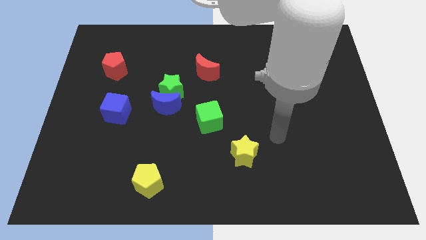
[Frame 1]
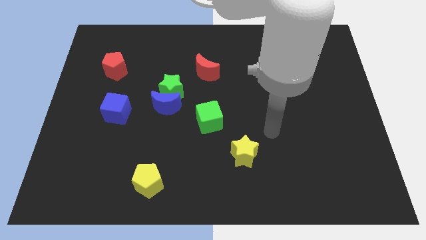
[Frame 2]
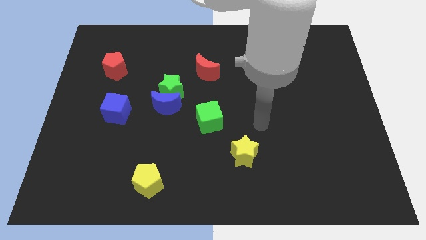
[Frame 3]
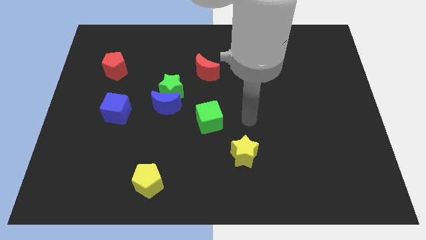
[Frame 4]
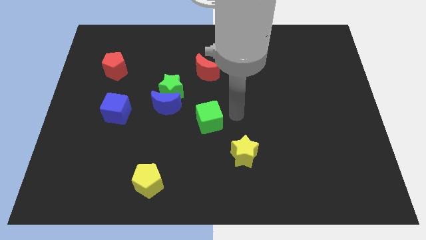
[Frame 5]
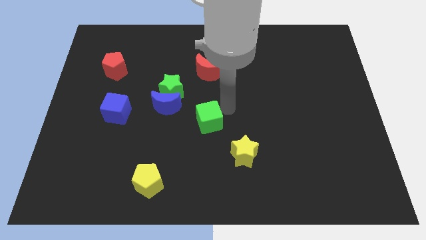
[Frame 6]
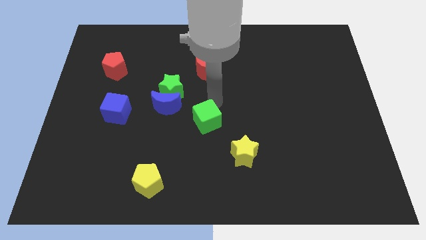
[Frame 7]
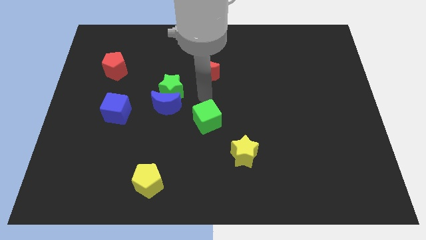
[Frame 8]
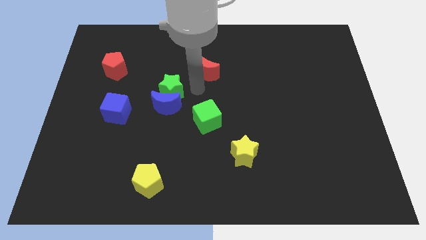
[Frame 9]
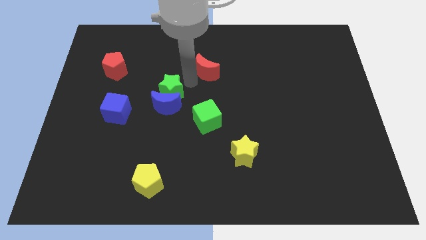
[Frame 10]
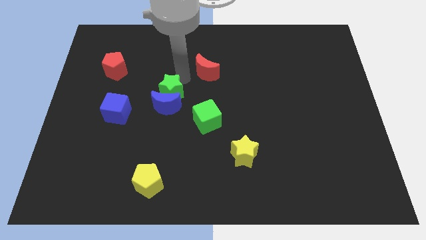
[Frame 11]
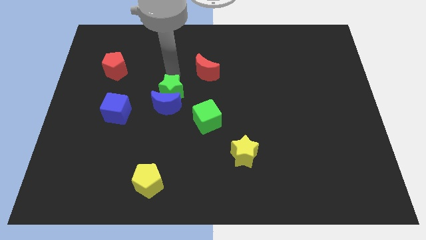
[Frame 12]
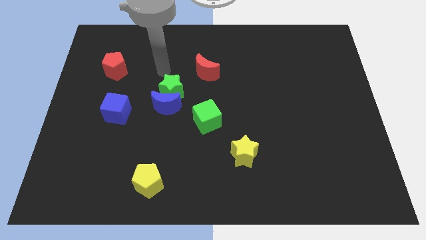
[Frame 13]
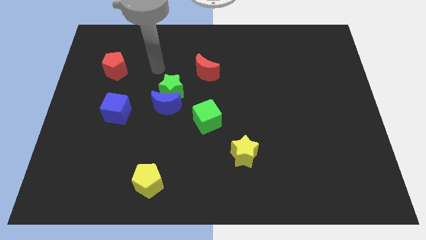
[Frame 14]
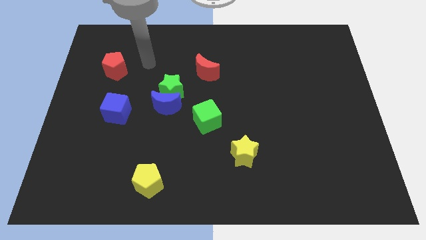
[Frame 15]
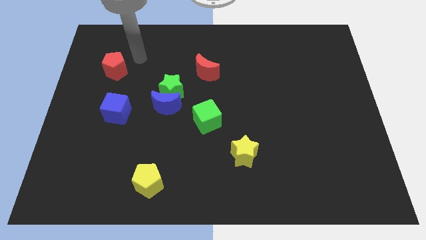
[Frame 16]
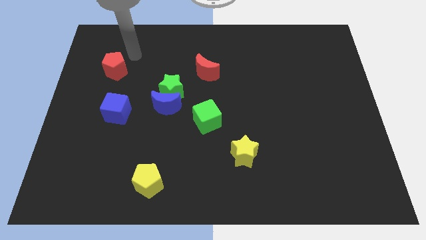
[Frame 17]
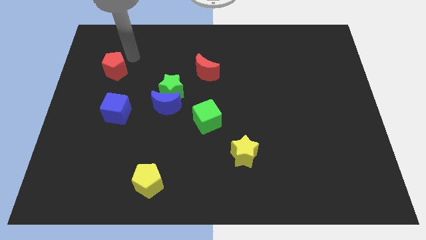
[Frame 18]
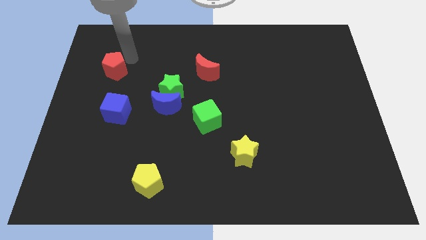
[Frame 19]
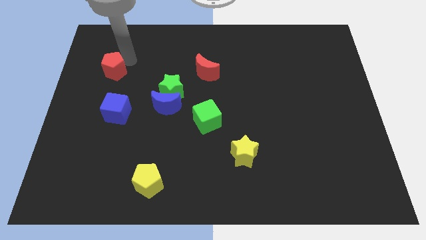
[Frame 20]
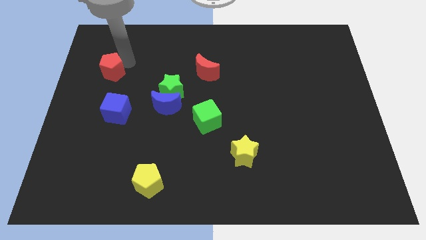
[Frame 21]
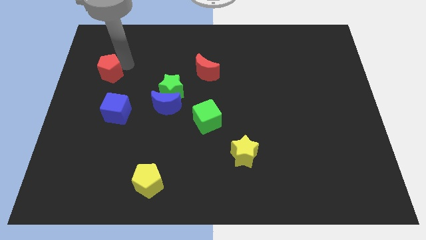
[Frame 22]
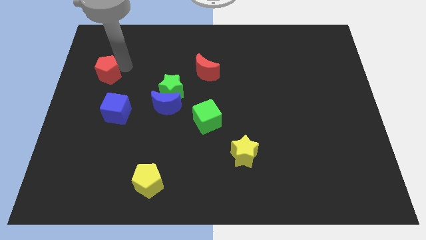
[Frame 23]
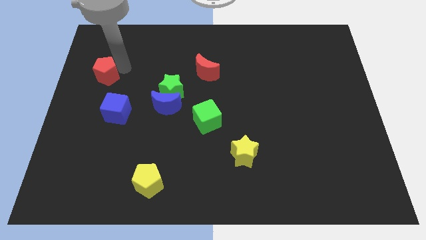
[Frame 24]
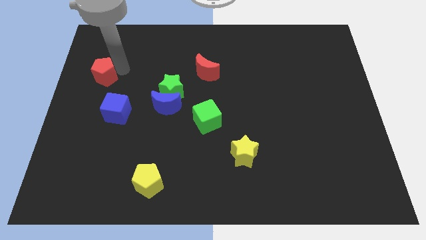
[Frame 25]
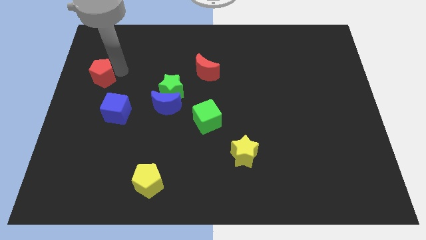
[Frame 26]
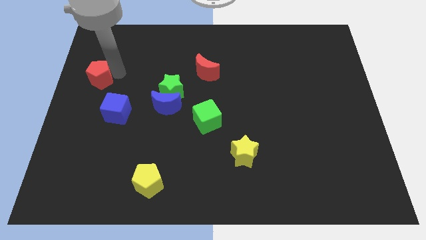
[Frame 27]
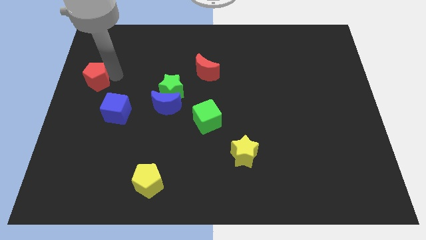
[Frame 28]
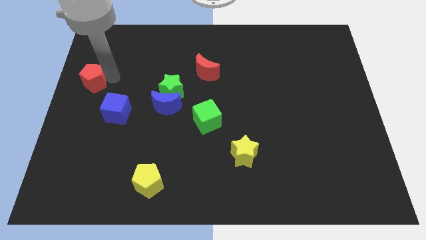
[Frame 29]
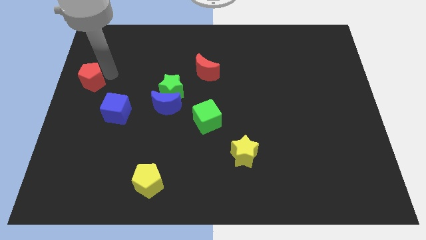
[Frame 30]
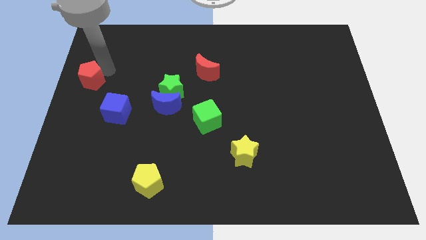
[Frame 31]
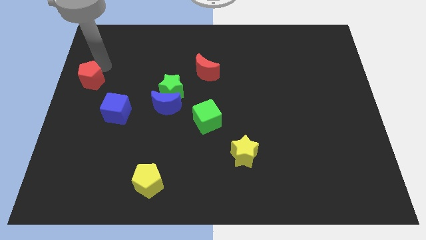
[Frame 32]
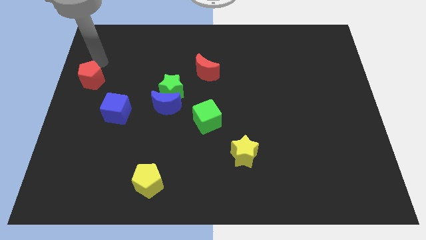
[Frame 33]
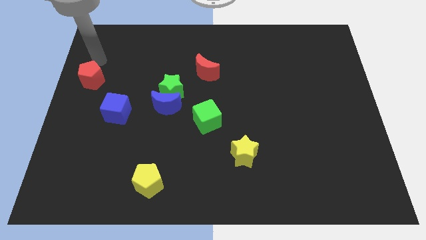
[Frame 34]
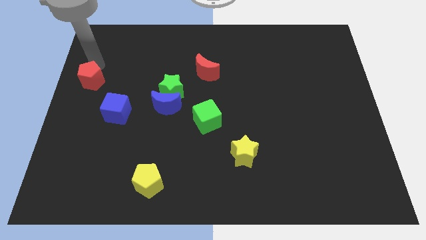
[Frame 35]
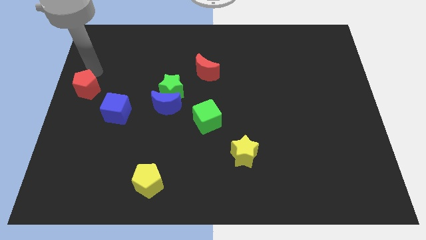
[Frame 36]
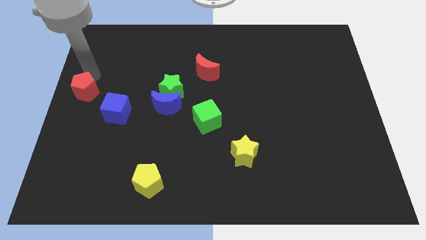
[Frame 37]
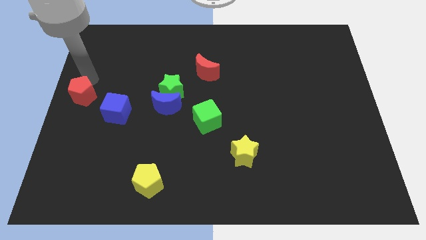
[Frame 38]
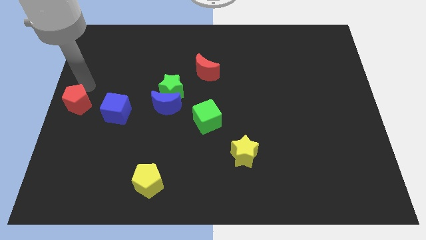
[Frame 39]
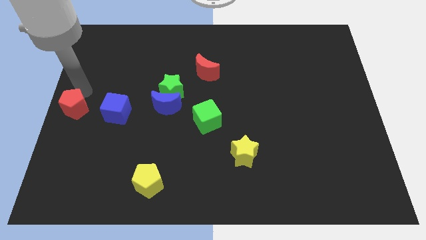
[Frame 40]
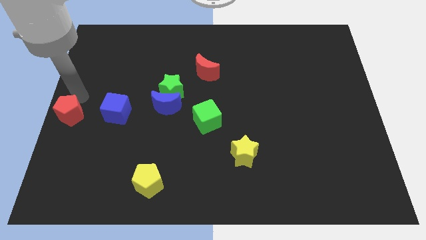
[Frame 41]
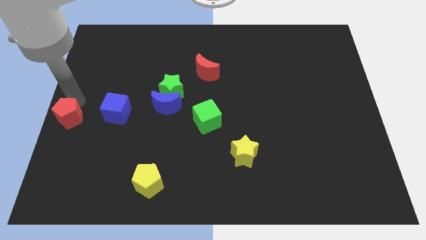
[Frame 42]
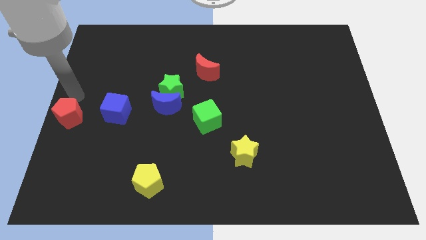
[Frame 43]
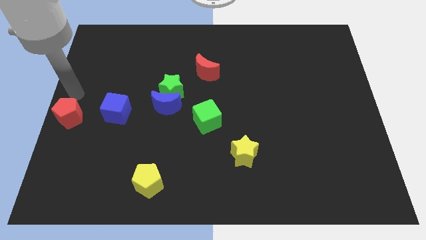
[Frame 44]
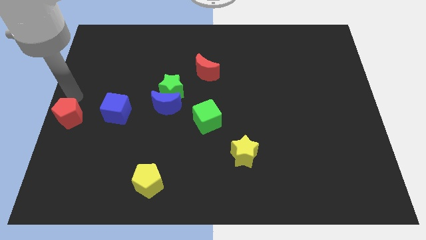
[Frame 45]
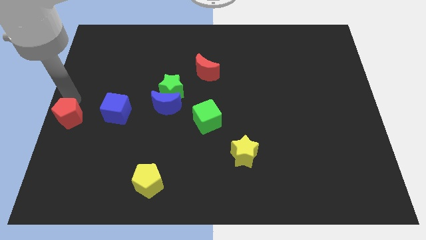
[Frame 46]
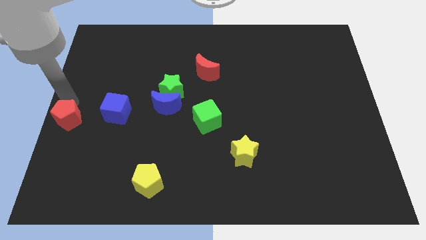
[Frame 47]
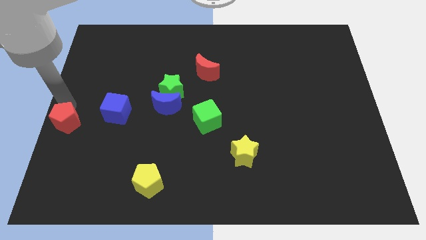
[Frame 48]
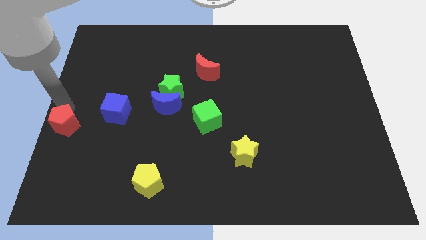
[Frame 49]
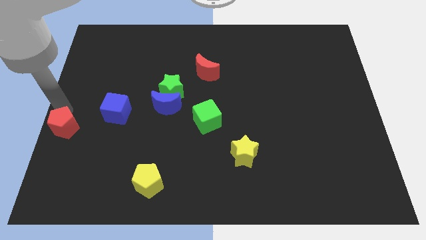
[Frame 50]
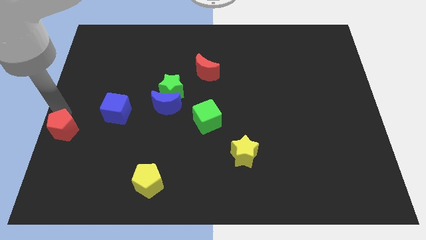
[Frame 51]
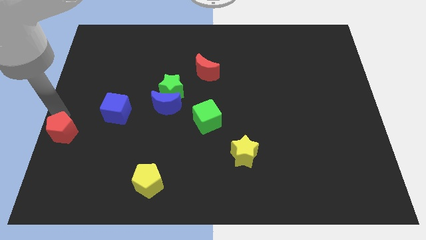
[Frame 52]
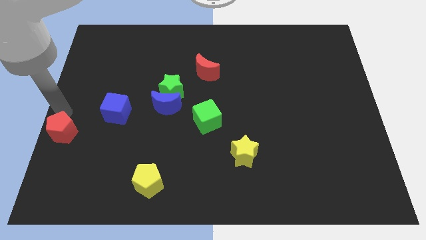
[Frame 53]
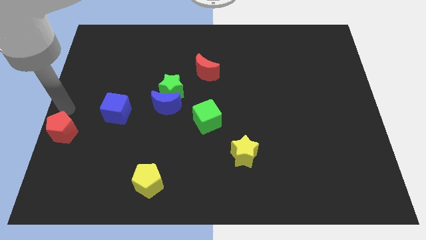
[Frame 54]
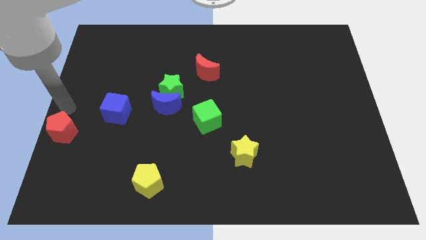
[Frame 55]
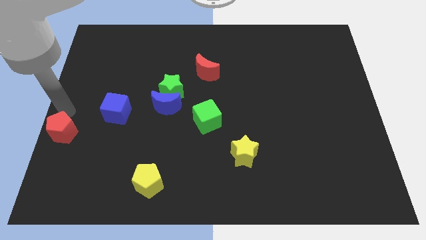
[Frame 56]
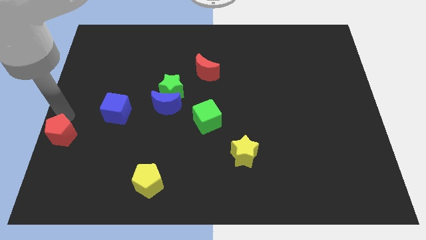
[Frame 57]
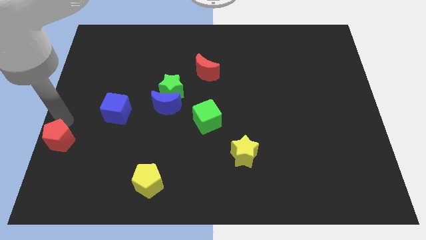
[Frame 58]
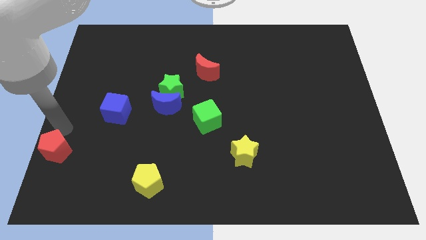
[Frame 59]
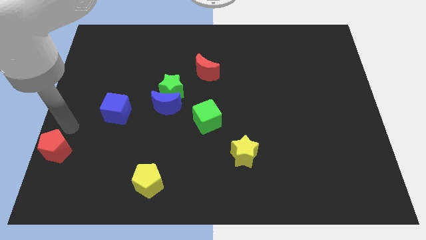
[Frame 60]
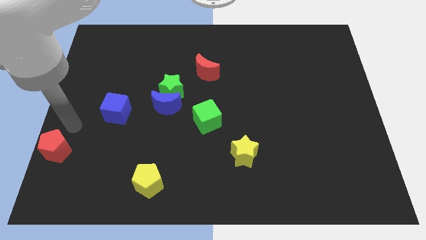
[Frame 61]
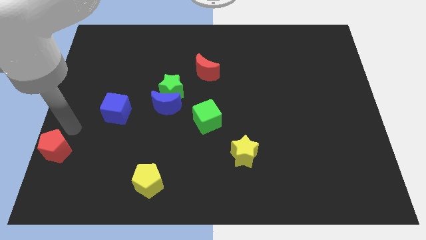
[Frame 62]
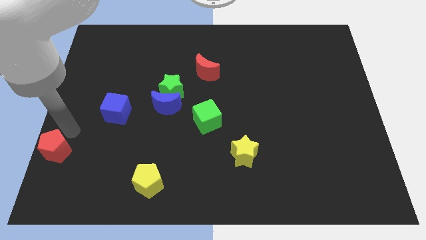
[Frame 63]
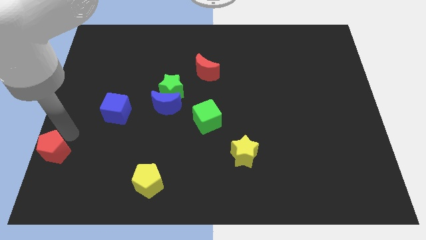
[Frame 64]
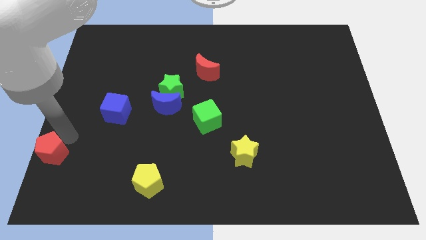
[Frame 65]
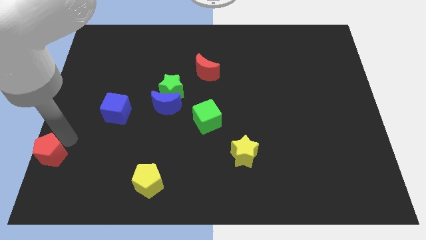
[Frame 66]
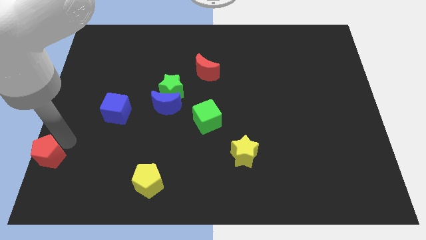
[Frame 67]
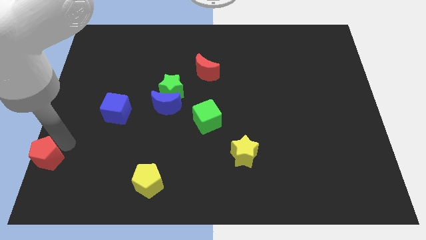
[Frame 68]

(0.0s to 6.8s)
move the red pentagon to the lower left corner
